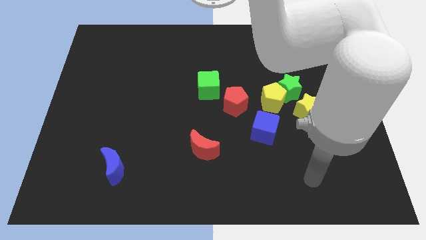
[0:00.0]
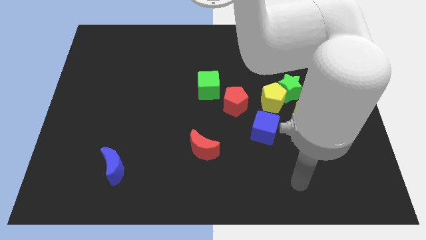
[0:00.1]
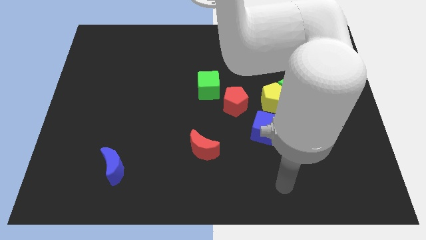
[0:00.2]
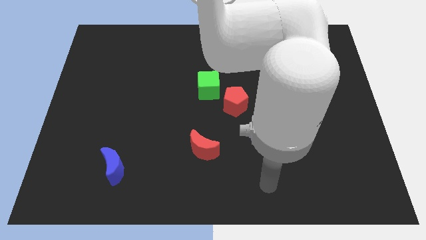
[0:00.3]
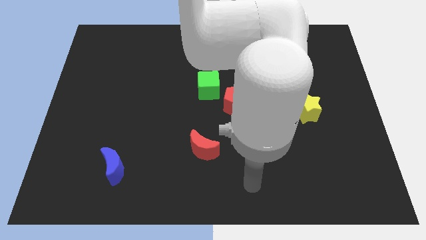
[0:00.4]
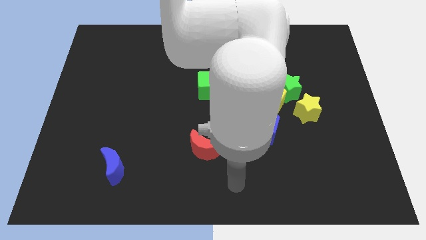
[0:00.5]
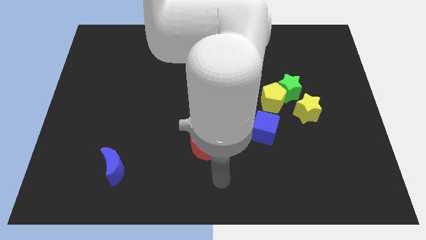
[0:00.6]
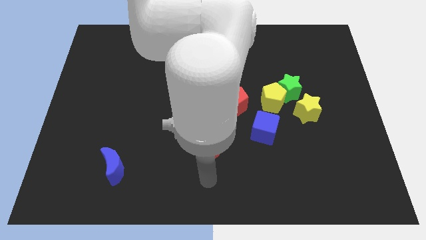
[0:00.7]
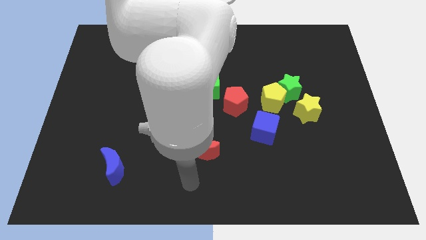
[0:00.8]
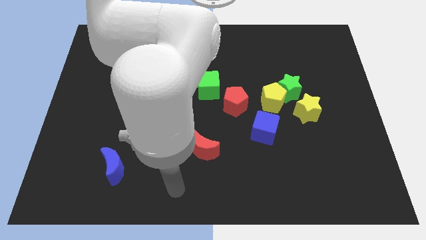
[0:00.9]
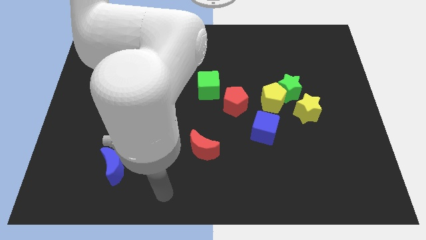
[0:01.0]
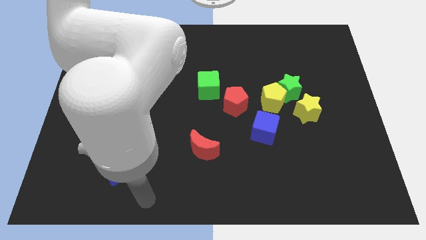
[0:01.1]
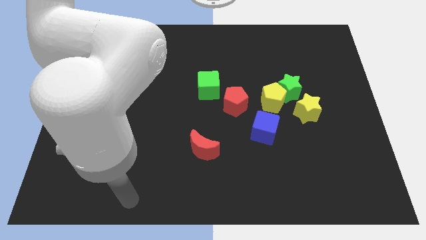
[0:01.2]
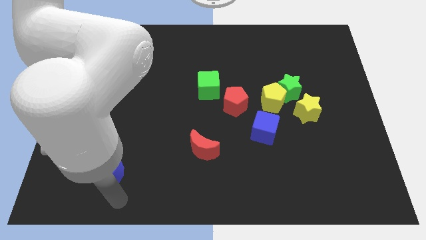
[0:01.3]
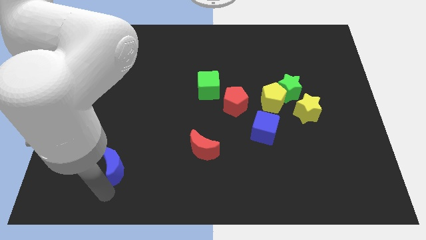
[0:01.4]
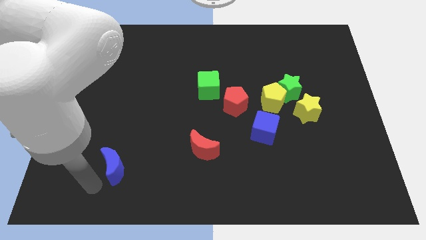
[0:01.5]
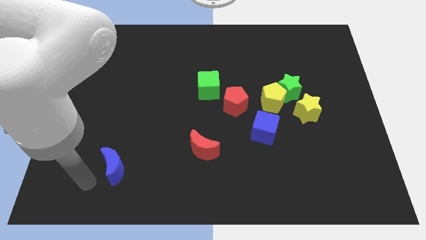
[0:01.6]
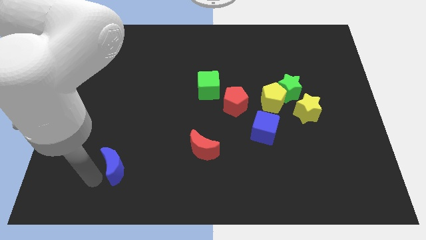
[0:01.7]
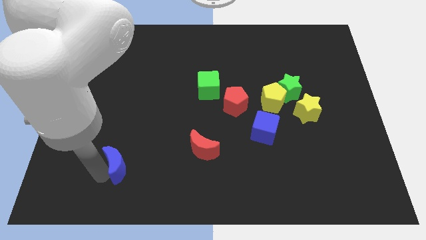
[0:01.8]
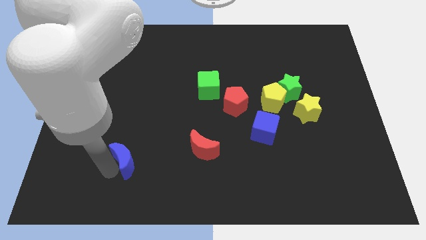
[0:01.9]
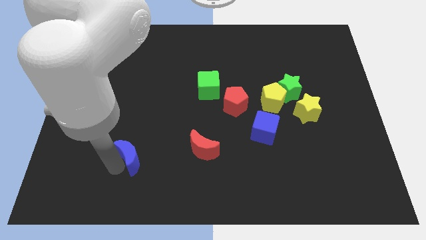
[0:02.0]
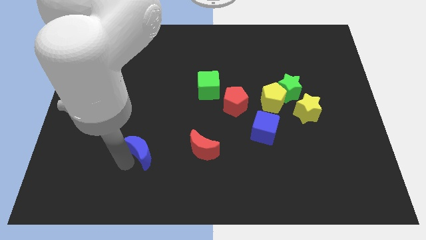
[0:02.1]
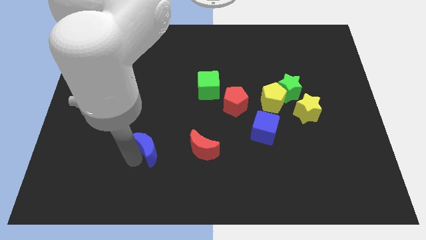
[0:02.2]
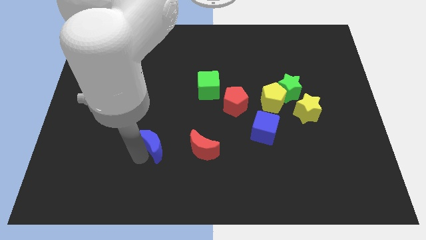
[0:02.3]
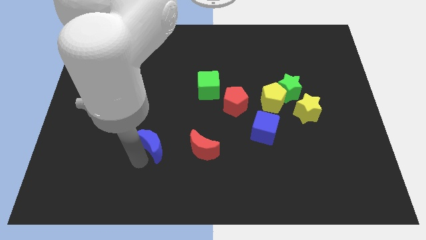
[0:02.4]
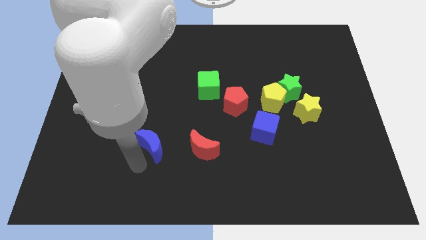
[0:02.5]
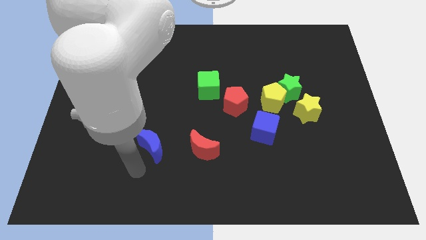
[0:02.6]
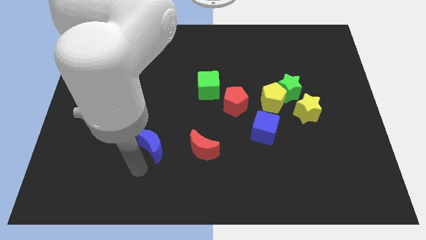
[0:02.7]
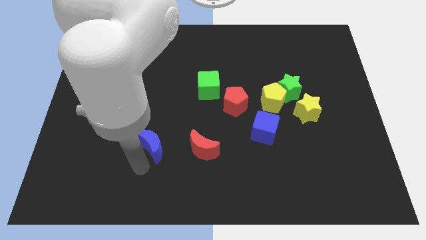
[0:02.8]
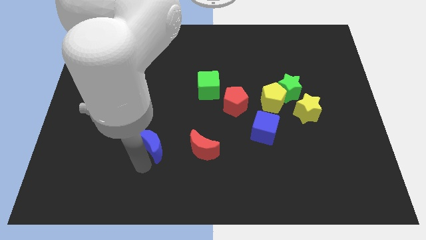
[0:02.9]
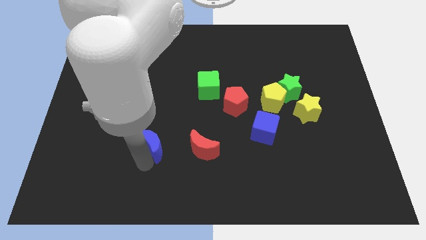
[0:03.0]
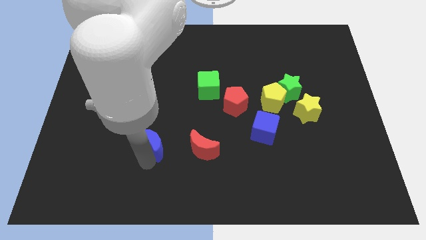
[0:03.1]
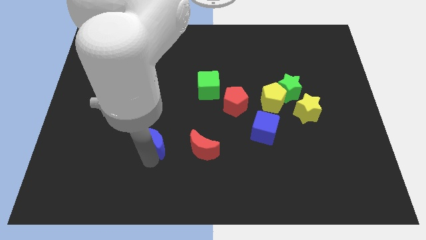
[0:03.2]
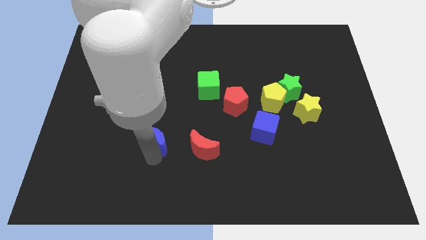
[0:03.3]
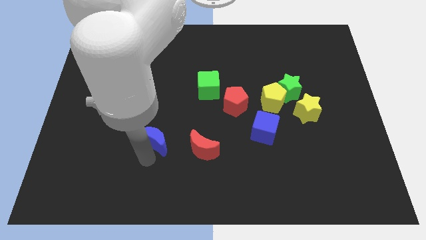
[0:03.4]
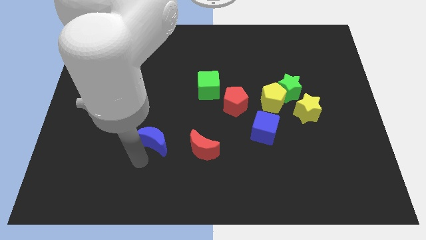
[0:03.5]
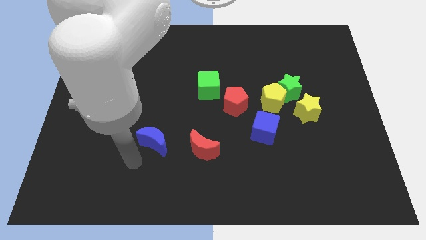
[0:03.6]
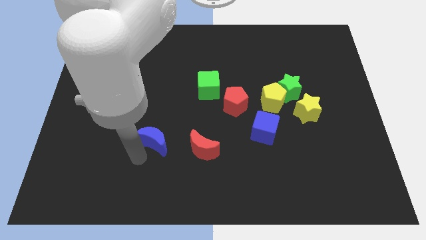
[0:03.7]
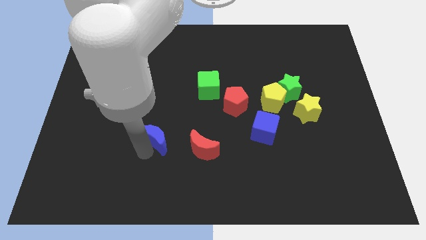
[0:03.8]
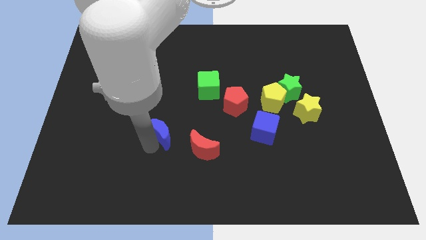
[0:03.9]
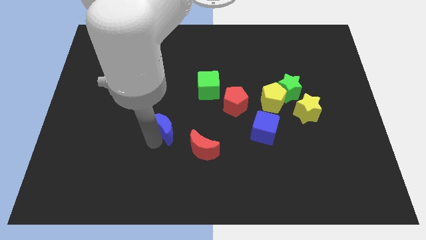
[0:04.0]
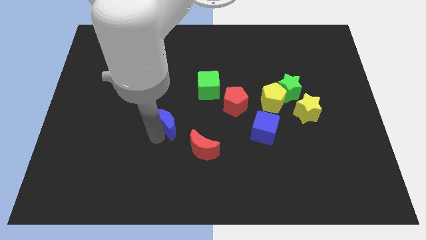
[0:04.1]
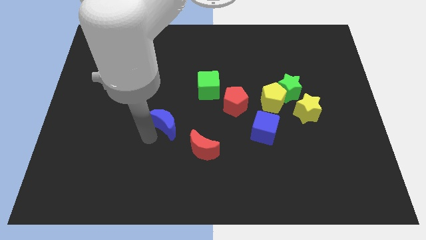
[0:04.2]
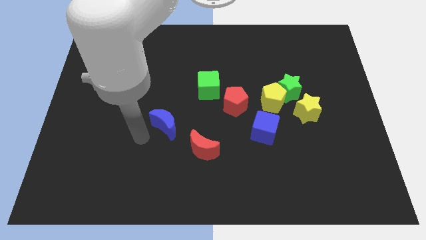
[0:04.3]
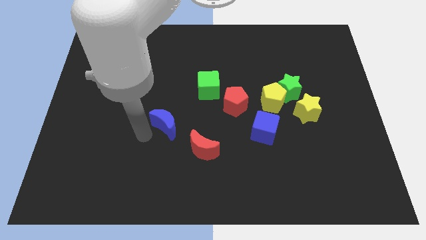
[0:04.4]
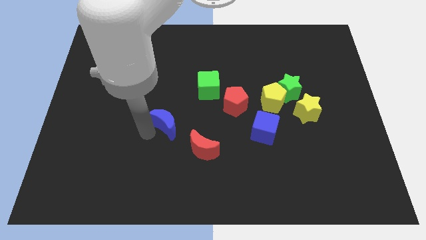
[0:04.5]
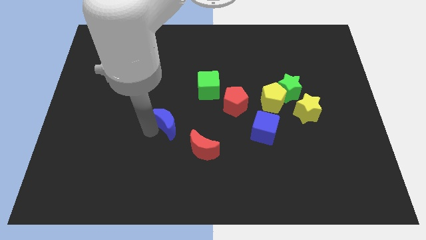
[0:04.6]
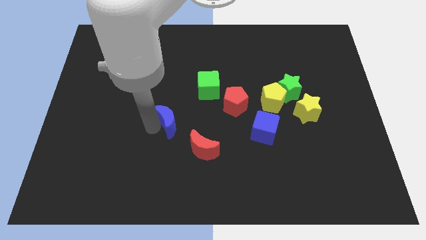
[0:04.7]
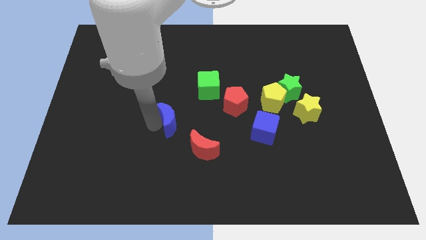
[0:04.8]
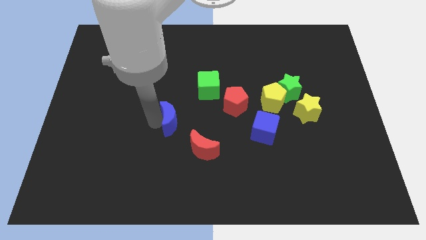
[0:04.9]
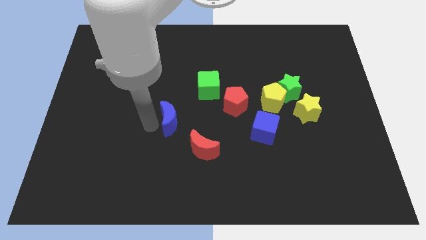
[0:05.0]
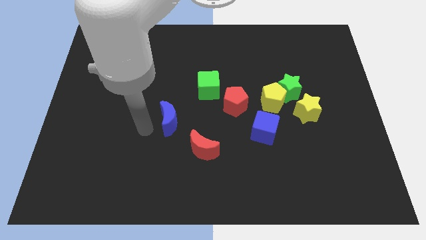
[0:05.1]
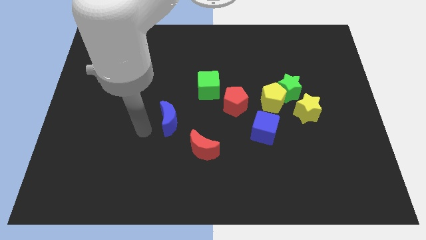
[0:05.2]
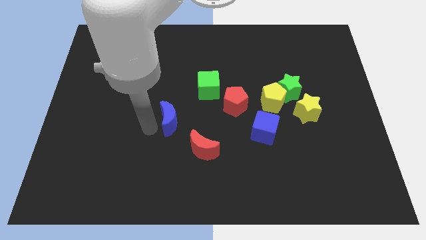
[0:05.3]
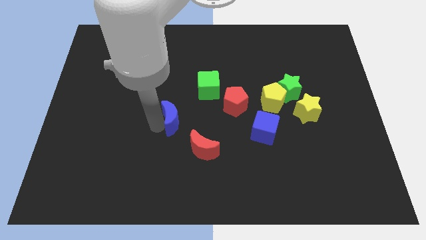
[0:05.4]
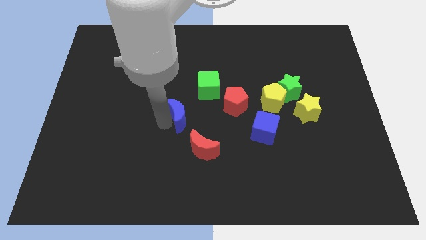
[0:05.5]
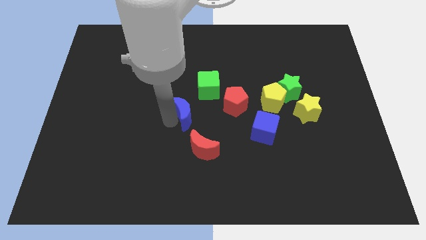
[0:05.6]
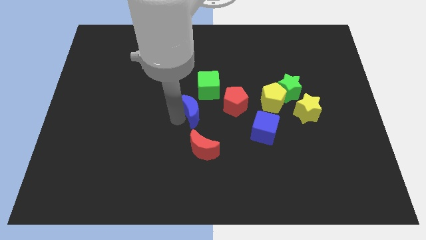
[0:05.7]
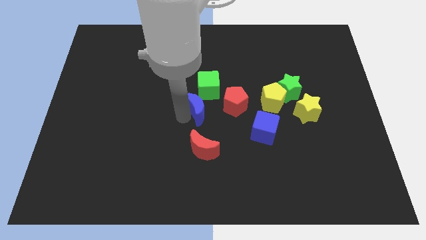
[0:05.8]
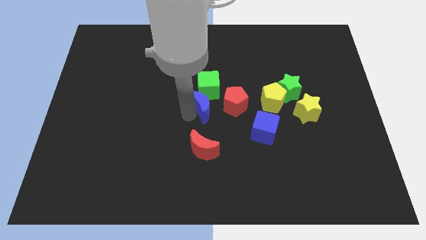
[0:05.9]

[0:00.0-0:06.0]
move the blue moon next to the green cube

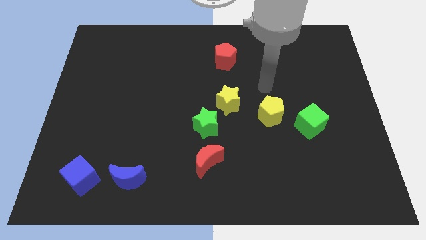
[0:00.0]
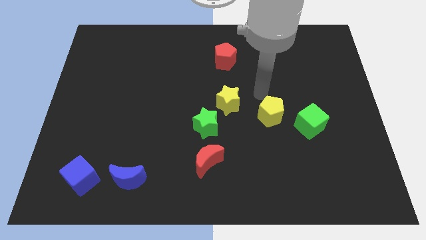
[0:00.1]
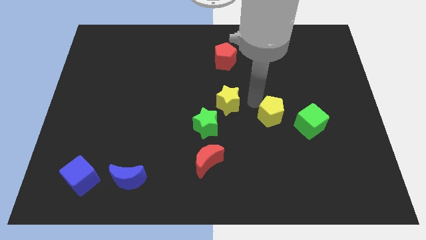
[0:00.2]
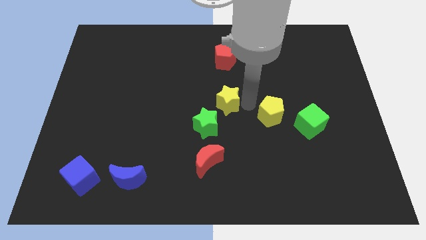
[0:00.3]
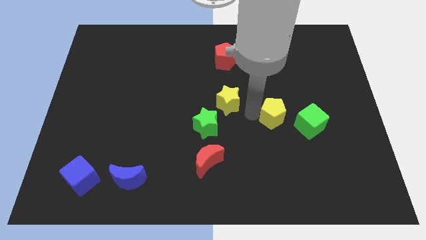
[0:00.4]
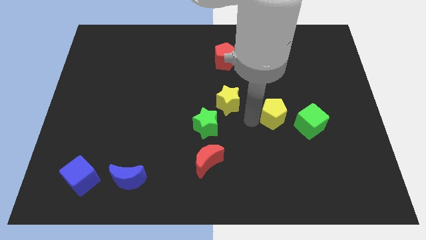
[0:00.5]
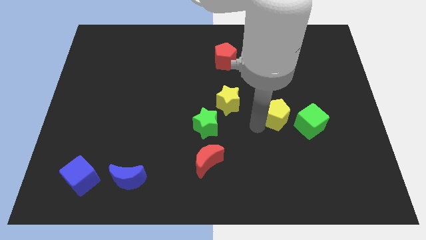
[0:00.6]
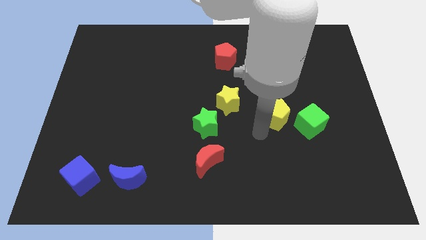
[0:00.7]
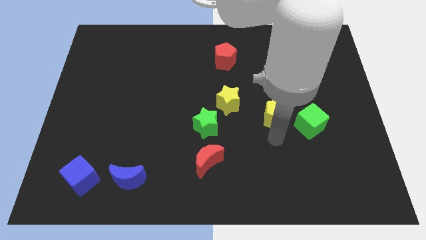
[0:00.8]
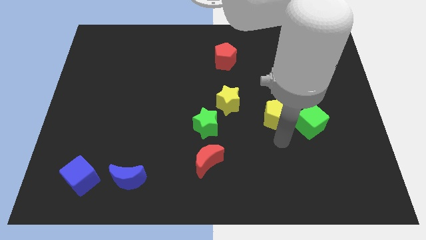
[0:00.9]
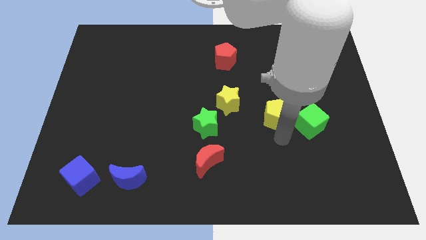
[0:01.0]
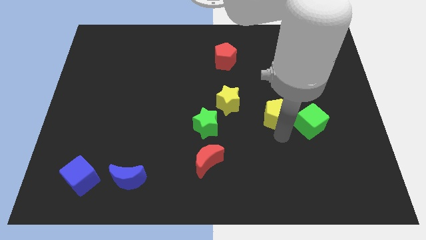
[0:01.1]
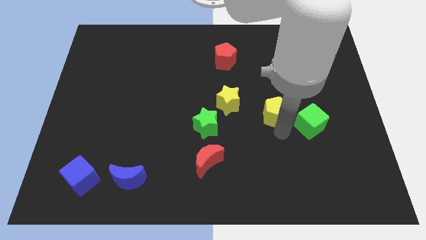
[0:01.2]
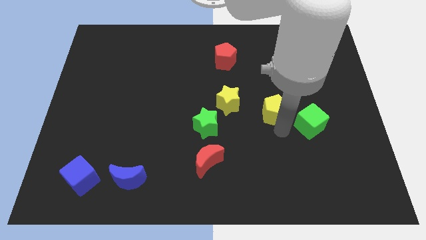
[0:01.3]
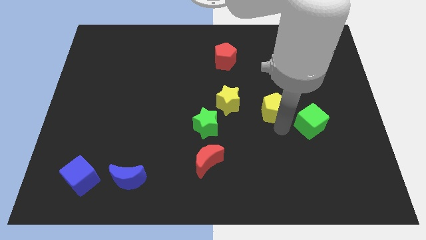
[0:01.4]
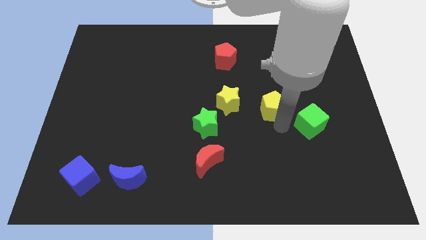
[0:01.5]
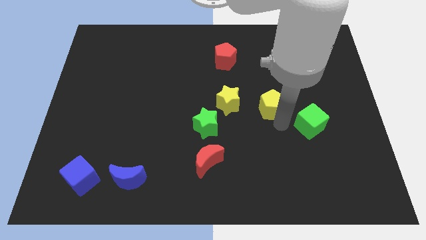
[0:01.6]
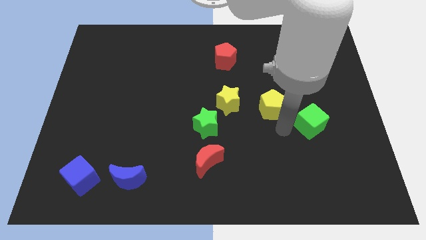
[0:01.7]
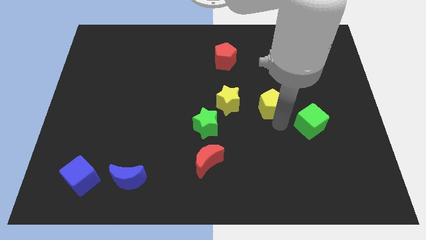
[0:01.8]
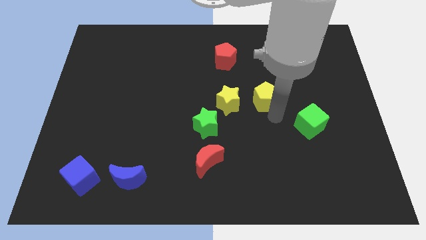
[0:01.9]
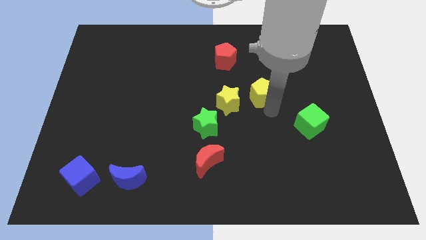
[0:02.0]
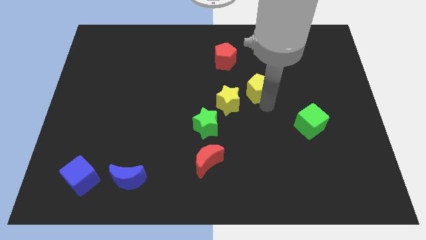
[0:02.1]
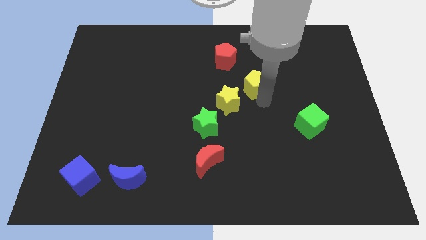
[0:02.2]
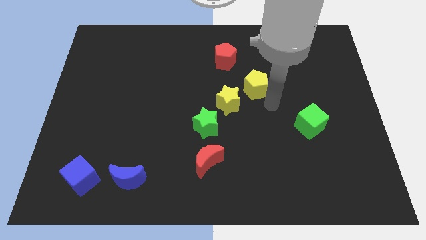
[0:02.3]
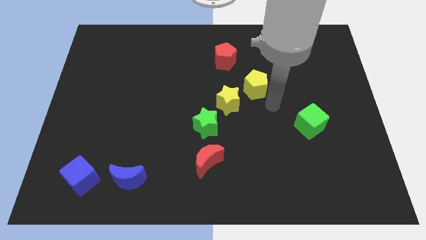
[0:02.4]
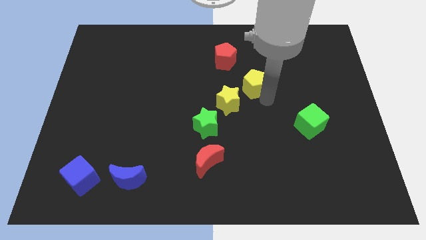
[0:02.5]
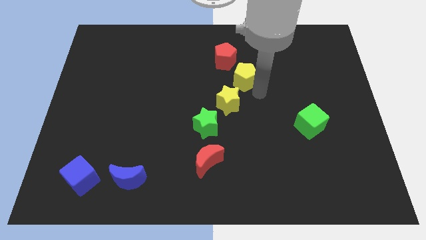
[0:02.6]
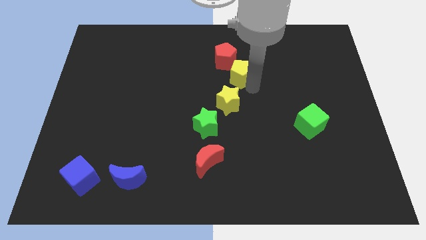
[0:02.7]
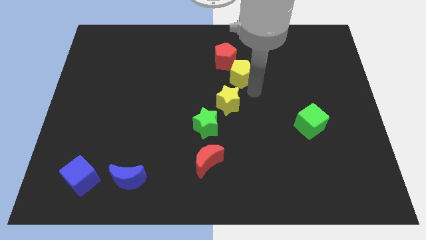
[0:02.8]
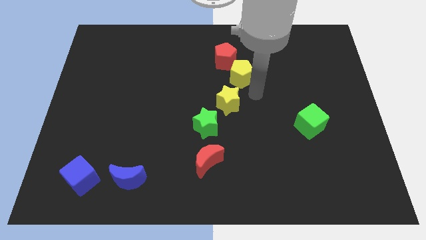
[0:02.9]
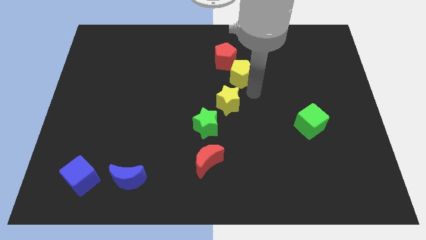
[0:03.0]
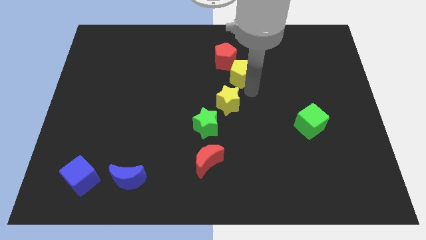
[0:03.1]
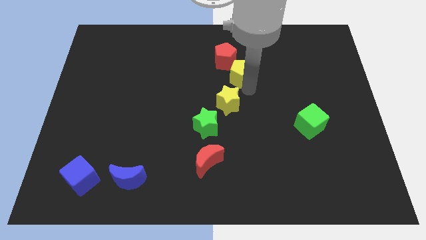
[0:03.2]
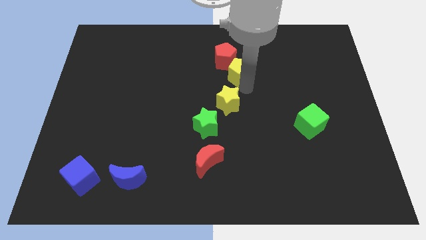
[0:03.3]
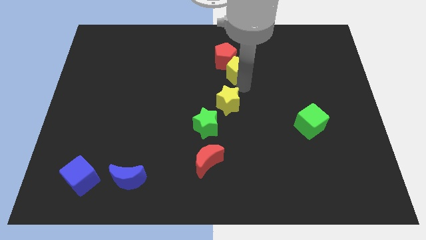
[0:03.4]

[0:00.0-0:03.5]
slide the yellow pentagon to the red pentagon
